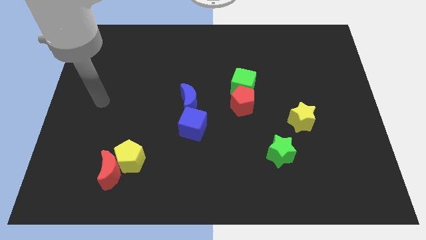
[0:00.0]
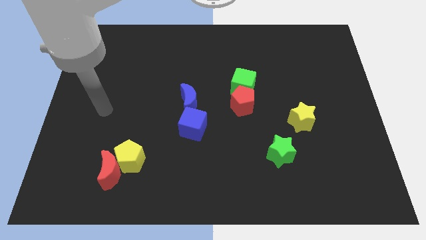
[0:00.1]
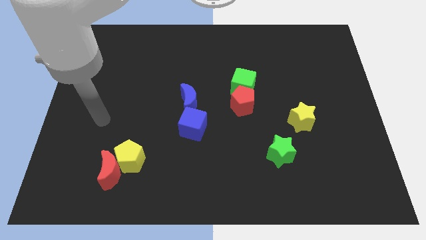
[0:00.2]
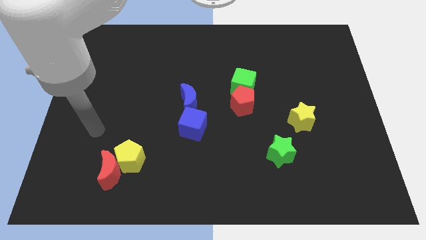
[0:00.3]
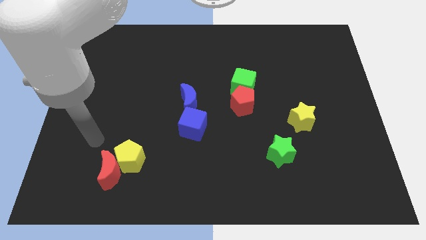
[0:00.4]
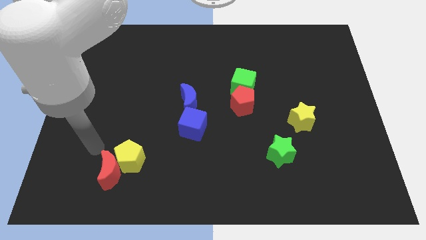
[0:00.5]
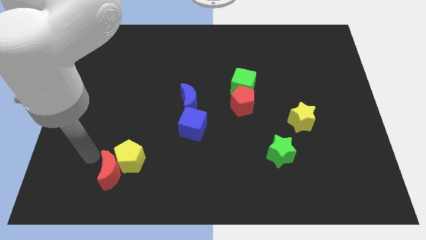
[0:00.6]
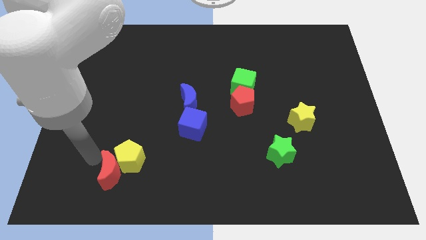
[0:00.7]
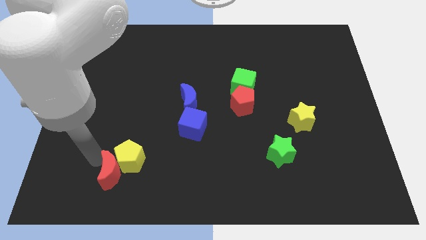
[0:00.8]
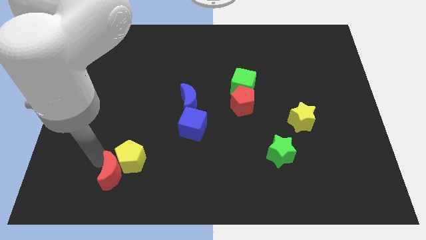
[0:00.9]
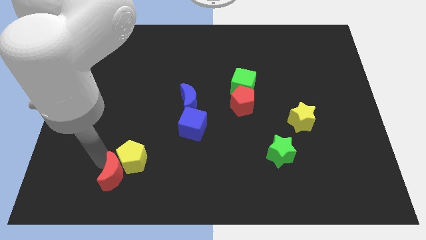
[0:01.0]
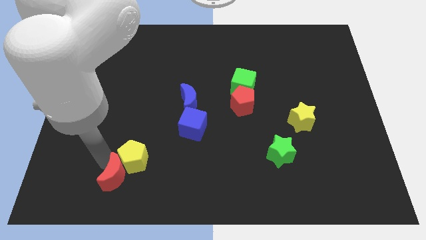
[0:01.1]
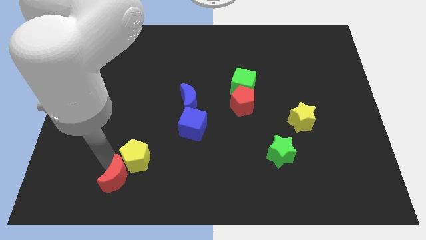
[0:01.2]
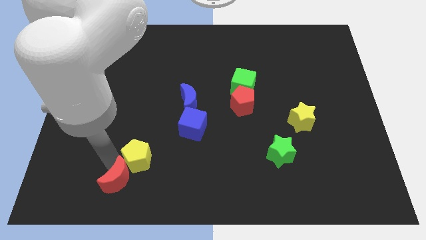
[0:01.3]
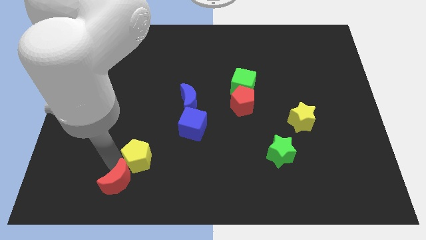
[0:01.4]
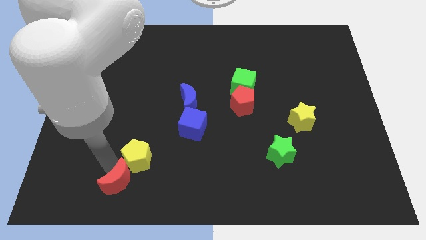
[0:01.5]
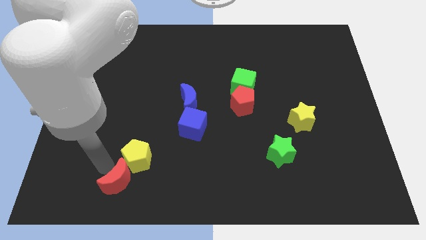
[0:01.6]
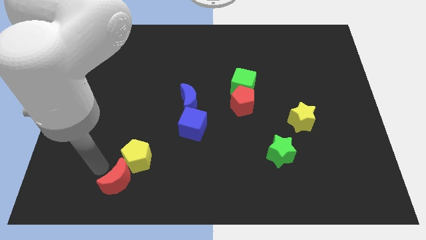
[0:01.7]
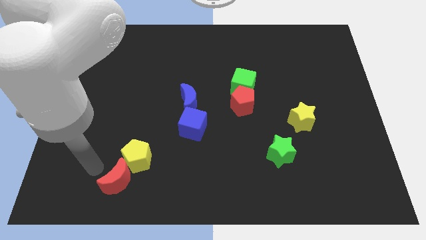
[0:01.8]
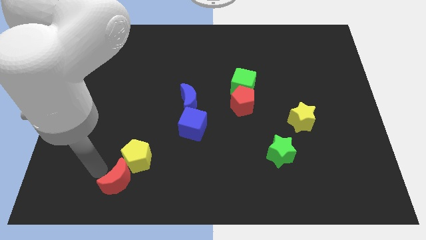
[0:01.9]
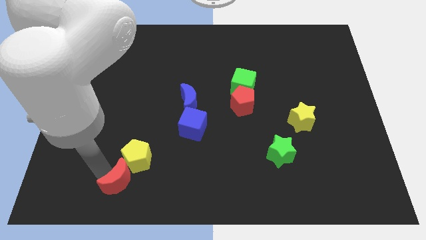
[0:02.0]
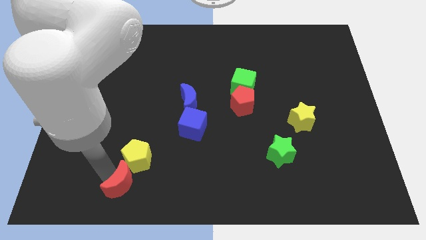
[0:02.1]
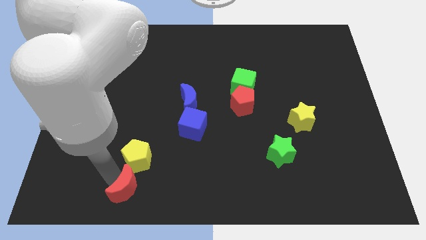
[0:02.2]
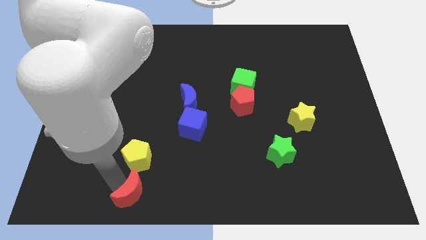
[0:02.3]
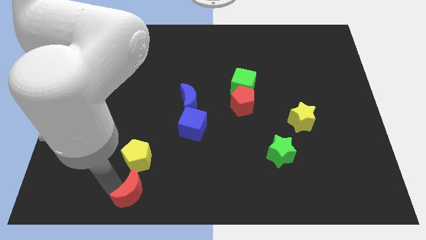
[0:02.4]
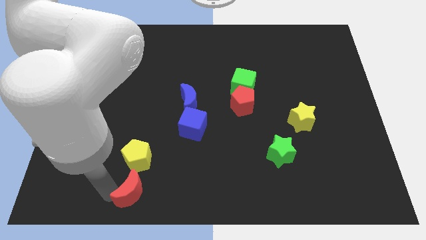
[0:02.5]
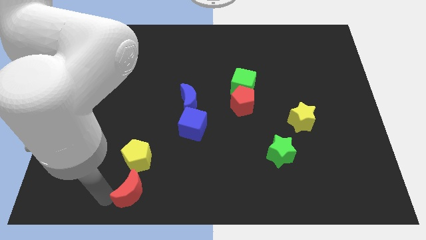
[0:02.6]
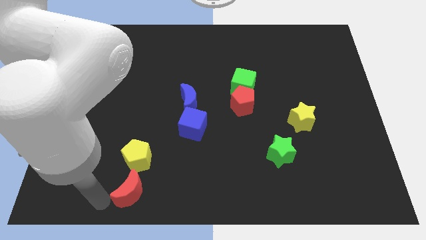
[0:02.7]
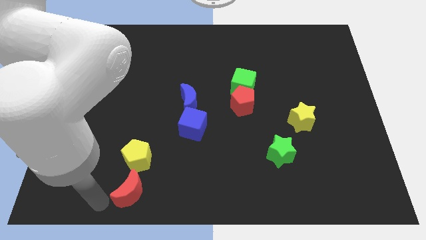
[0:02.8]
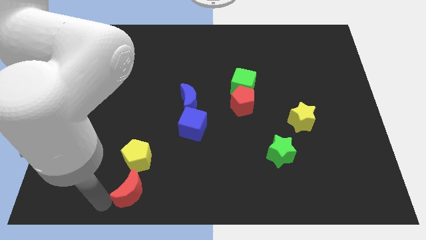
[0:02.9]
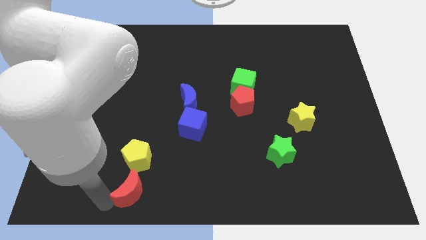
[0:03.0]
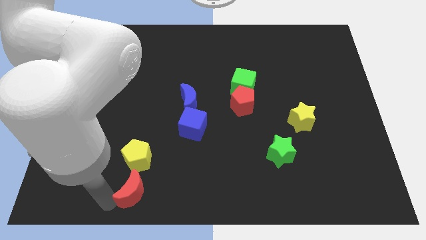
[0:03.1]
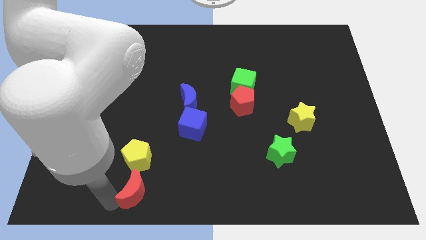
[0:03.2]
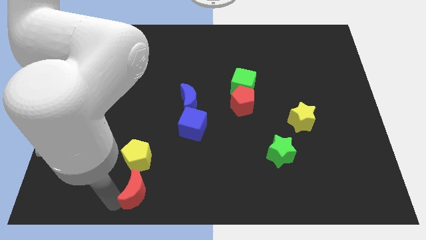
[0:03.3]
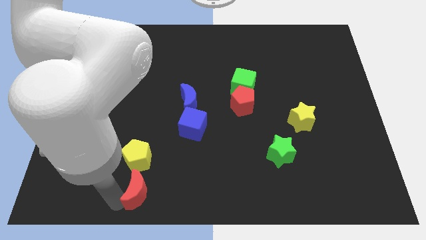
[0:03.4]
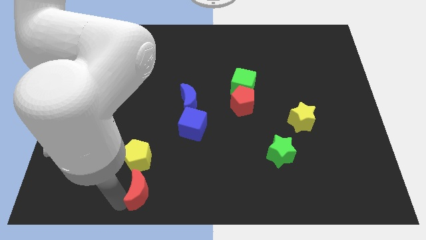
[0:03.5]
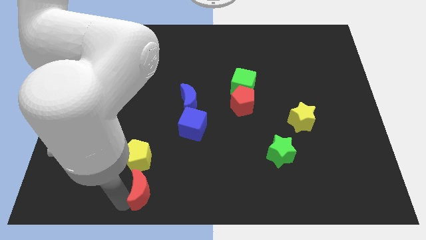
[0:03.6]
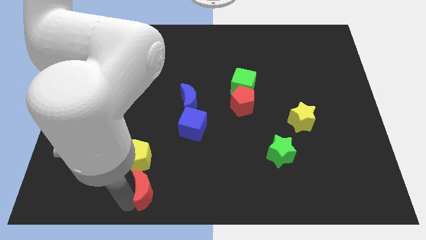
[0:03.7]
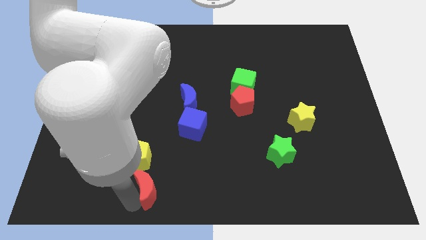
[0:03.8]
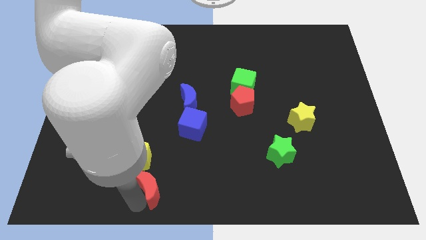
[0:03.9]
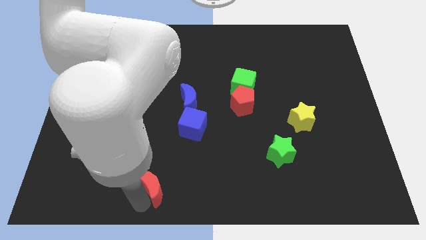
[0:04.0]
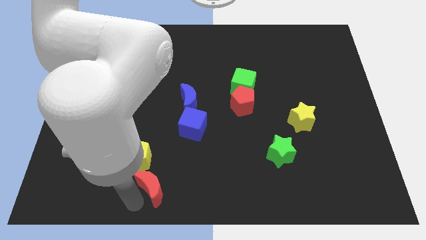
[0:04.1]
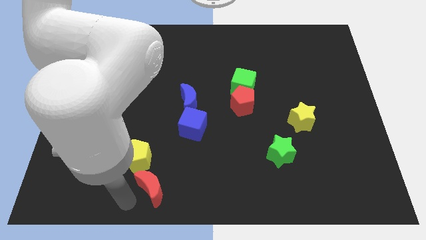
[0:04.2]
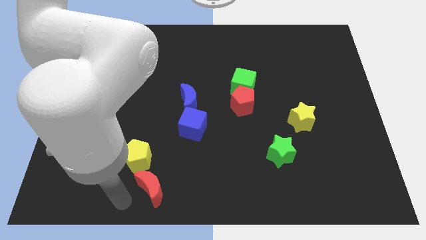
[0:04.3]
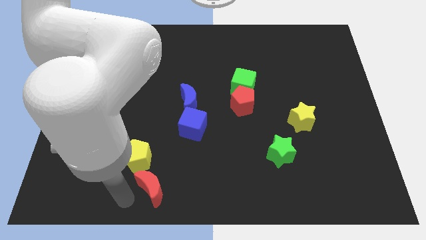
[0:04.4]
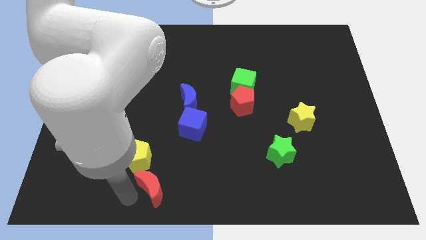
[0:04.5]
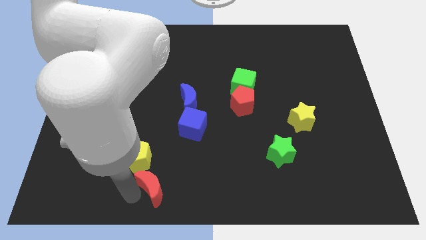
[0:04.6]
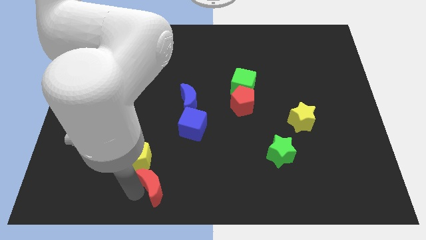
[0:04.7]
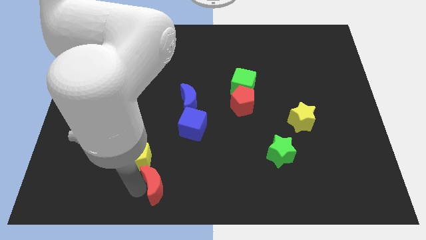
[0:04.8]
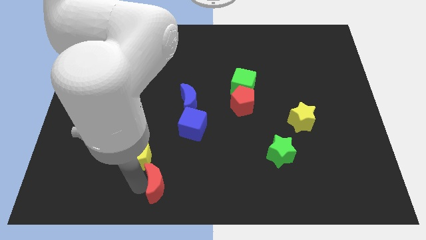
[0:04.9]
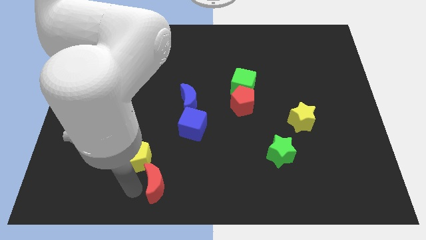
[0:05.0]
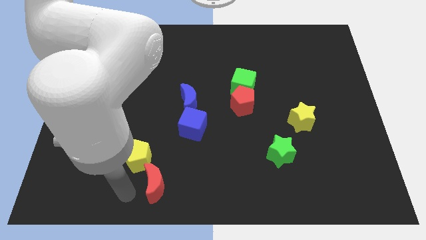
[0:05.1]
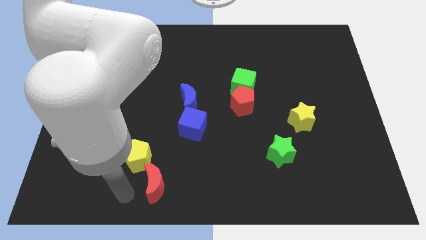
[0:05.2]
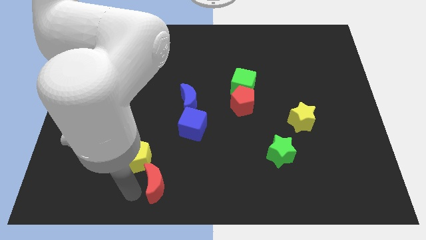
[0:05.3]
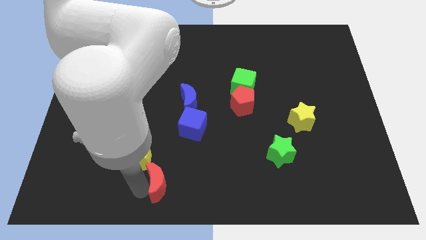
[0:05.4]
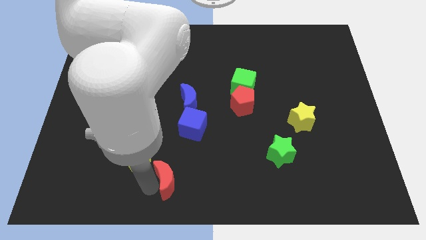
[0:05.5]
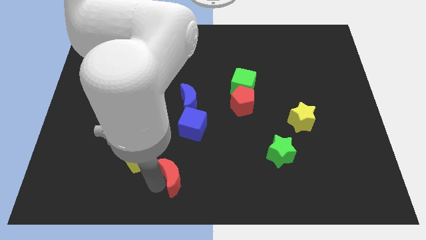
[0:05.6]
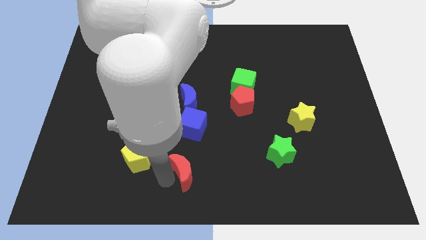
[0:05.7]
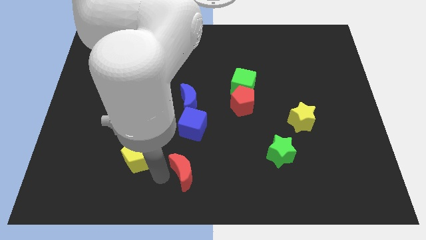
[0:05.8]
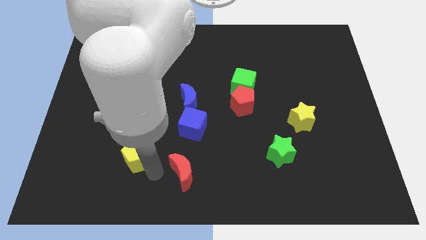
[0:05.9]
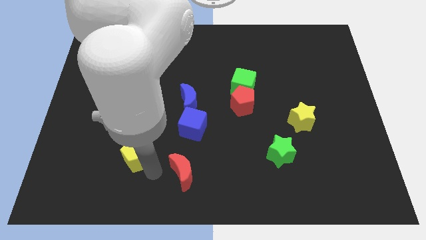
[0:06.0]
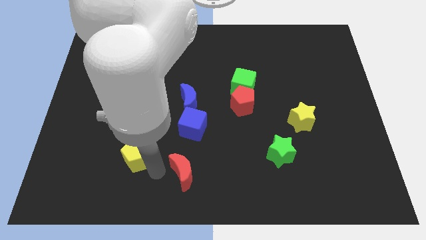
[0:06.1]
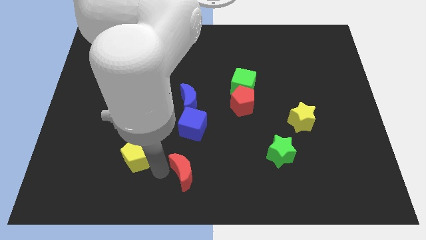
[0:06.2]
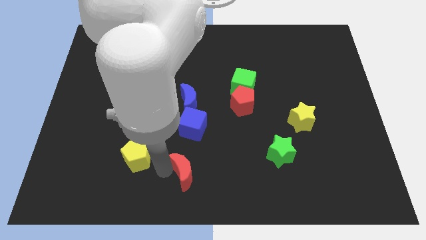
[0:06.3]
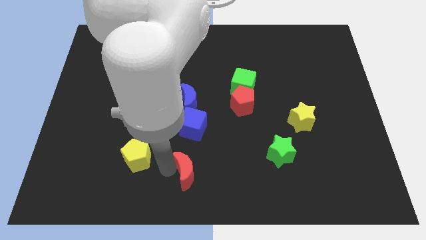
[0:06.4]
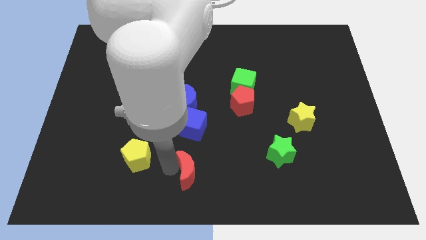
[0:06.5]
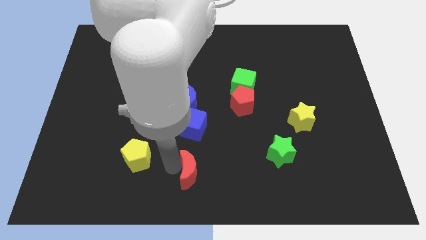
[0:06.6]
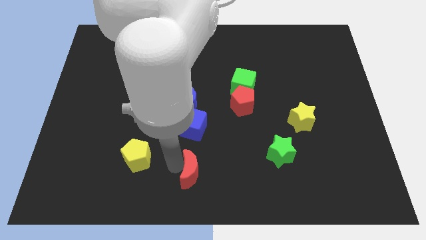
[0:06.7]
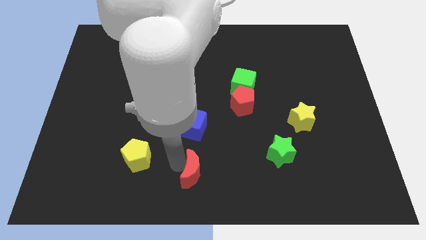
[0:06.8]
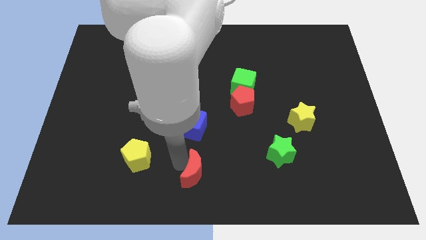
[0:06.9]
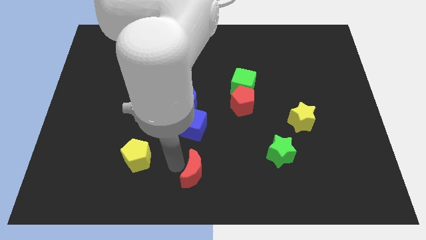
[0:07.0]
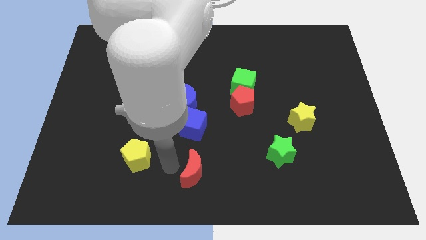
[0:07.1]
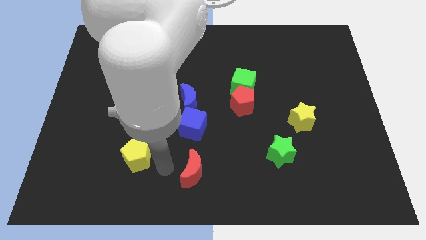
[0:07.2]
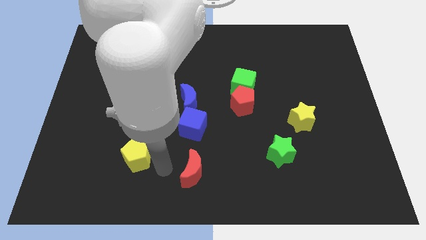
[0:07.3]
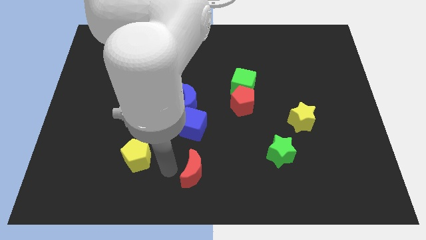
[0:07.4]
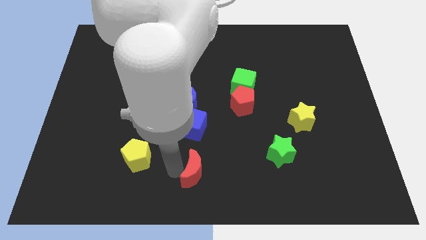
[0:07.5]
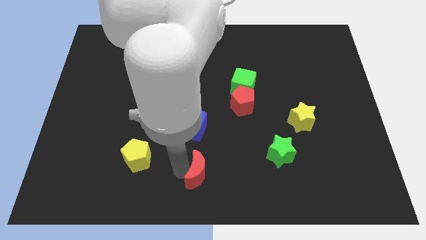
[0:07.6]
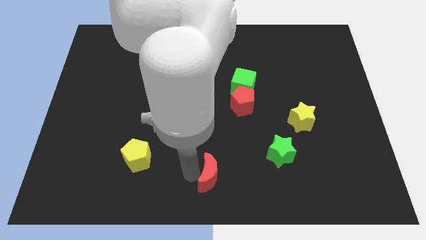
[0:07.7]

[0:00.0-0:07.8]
move the red moon right
